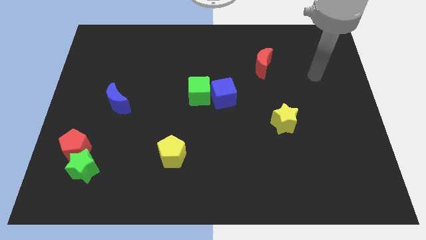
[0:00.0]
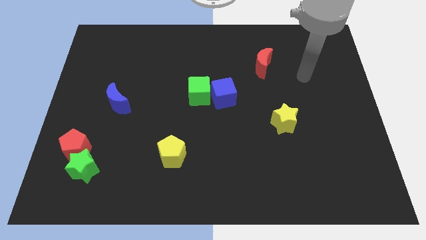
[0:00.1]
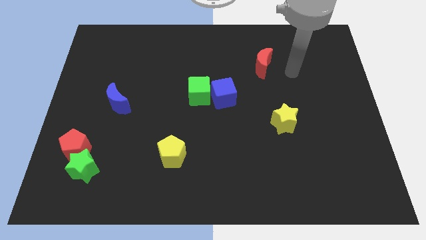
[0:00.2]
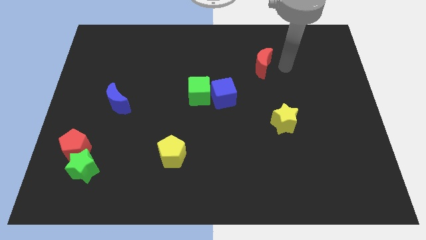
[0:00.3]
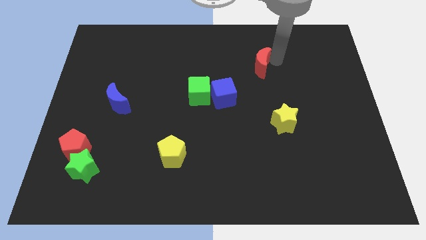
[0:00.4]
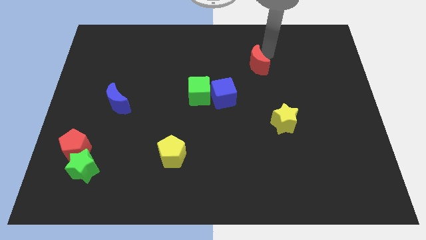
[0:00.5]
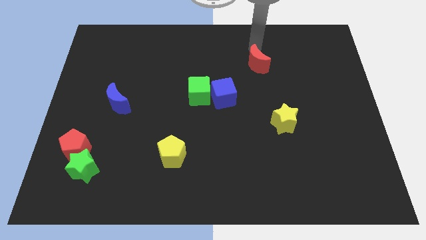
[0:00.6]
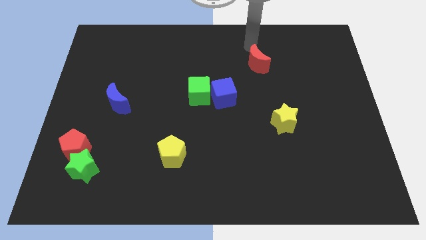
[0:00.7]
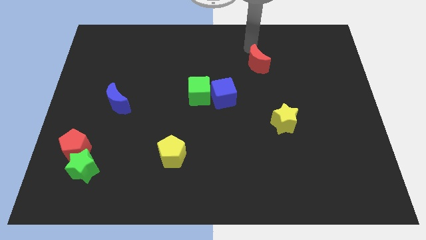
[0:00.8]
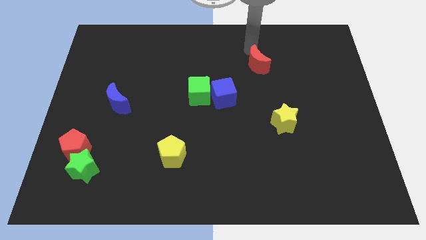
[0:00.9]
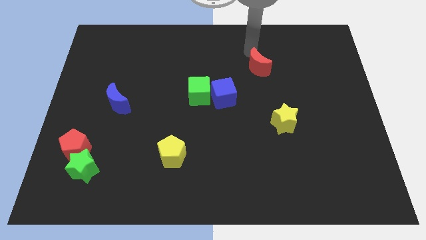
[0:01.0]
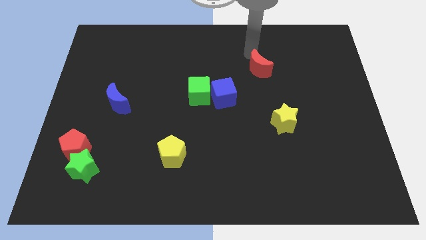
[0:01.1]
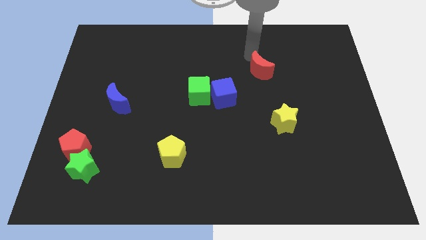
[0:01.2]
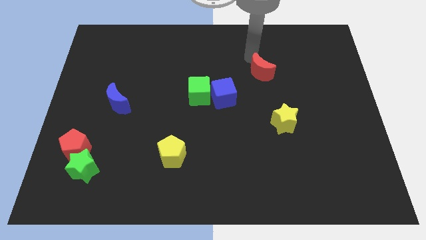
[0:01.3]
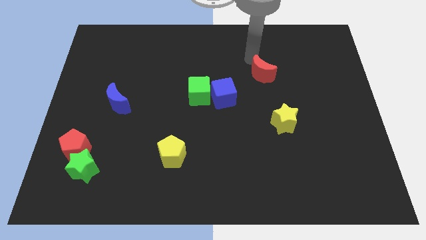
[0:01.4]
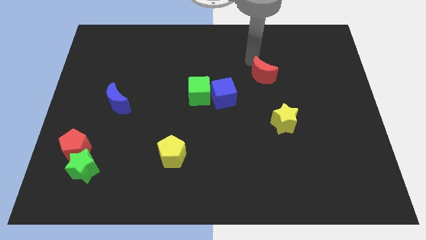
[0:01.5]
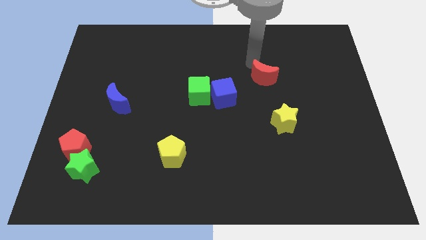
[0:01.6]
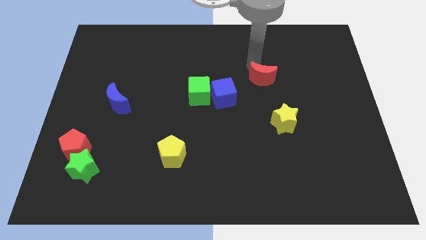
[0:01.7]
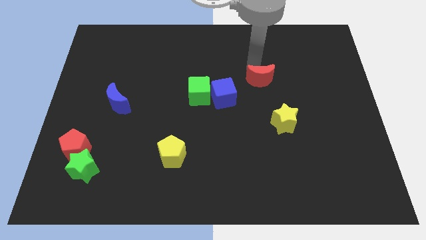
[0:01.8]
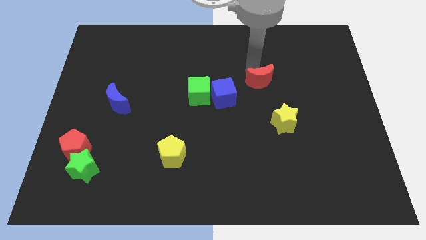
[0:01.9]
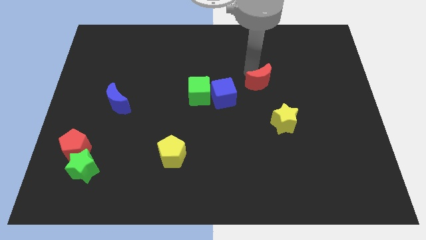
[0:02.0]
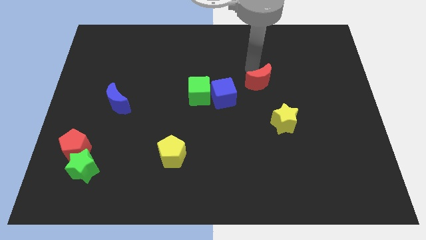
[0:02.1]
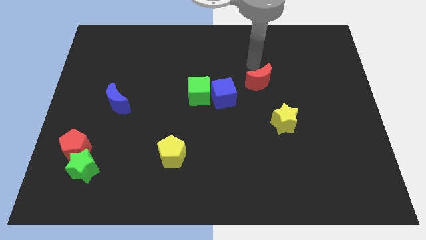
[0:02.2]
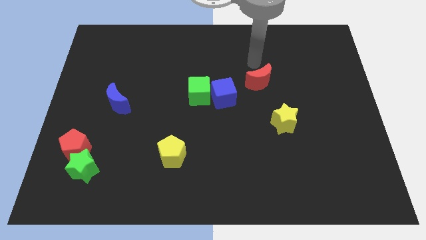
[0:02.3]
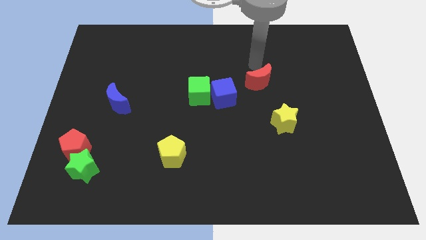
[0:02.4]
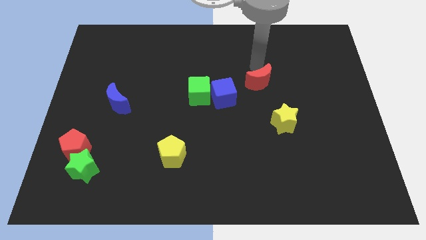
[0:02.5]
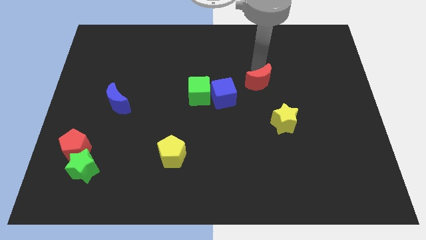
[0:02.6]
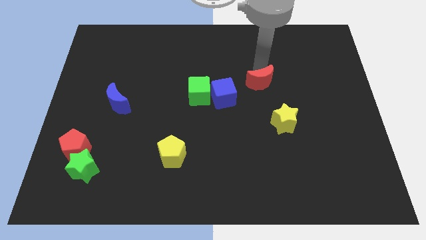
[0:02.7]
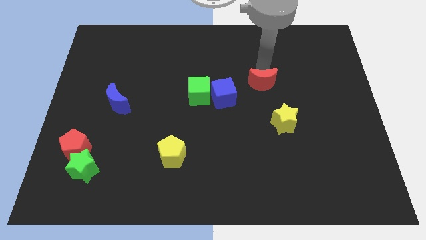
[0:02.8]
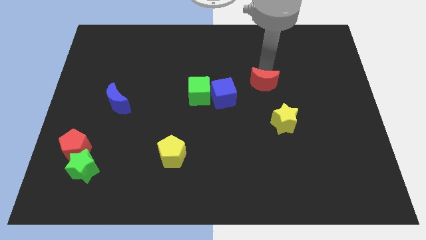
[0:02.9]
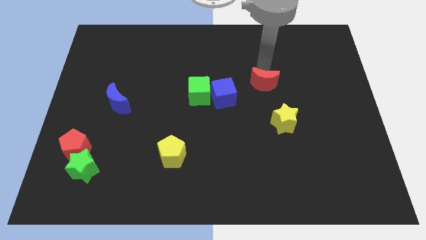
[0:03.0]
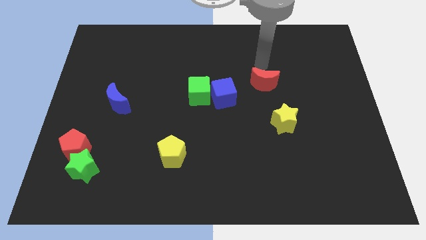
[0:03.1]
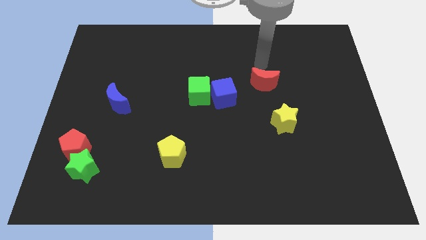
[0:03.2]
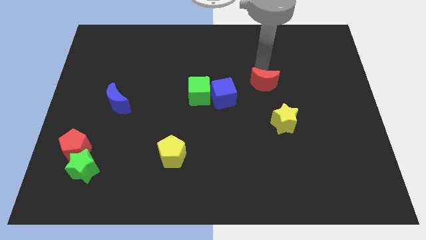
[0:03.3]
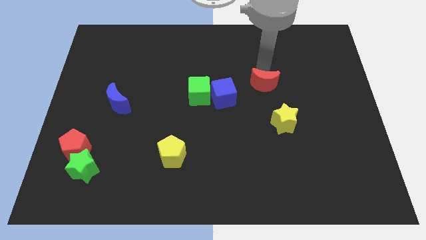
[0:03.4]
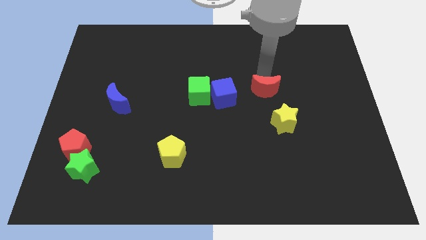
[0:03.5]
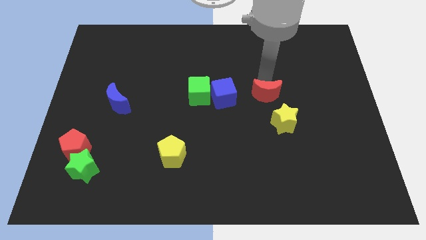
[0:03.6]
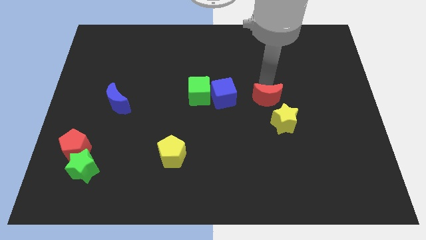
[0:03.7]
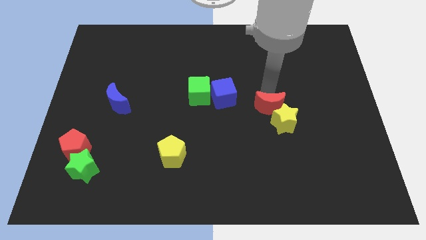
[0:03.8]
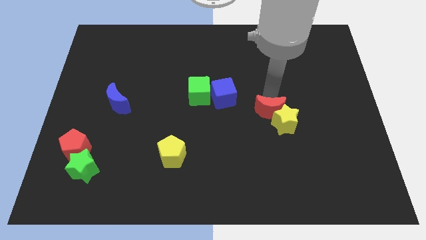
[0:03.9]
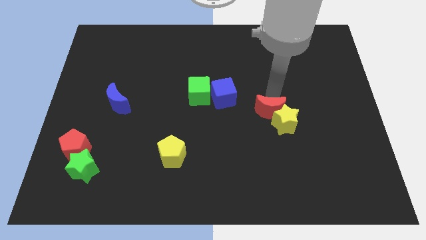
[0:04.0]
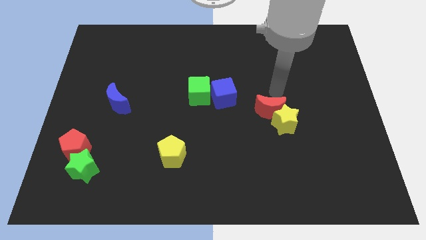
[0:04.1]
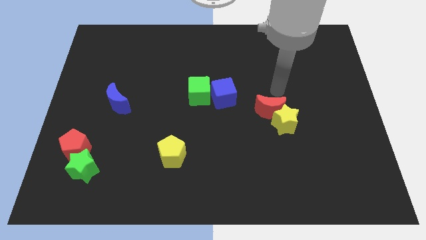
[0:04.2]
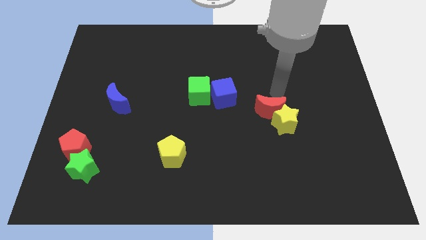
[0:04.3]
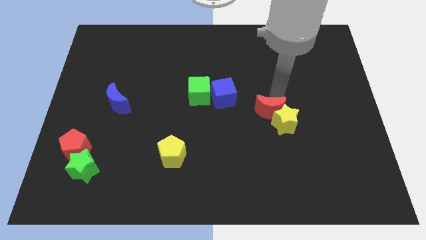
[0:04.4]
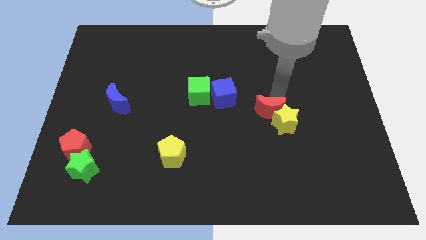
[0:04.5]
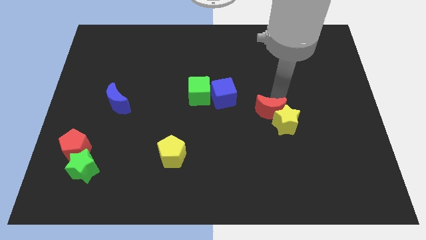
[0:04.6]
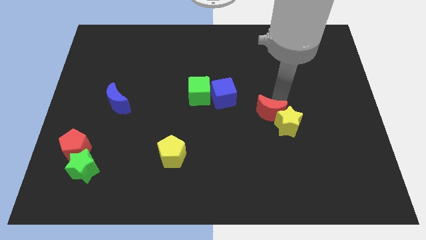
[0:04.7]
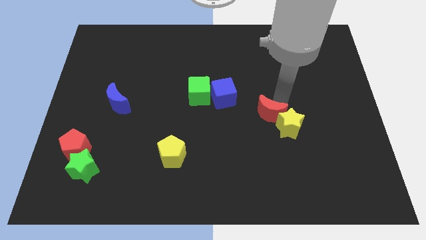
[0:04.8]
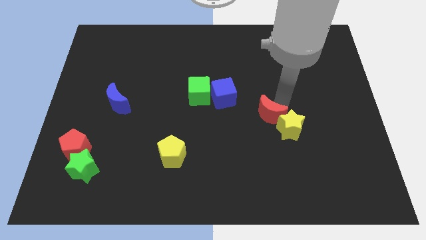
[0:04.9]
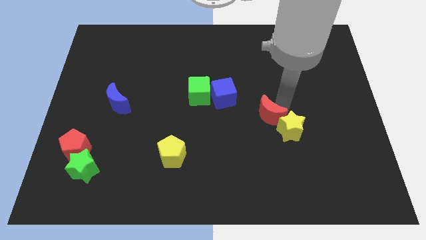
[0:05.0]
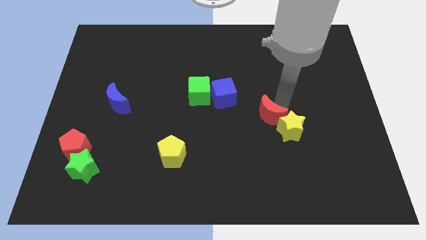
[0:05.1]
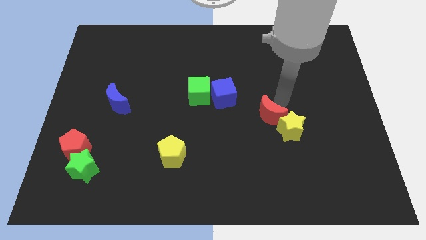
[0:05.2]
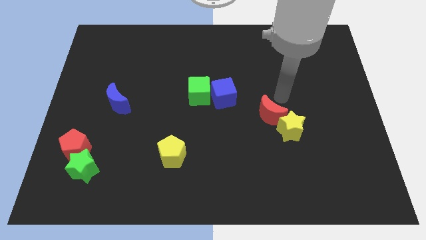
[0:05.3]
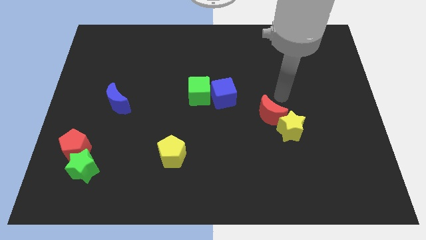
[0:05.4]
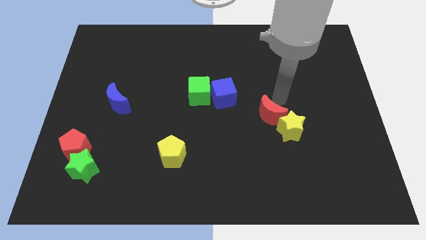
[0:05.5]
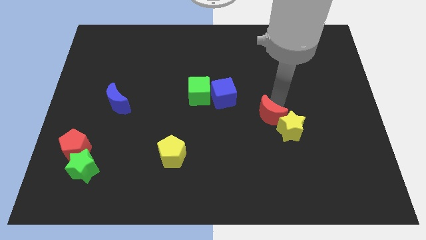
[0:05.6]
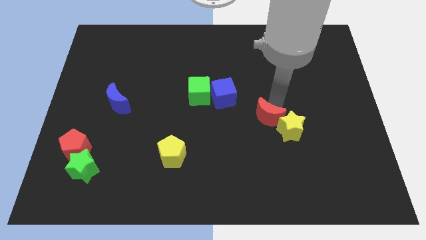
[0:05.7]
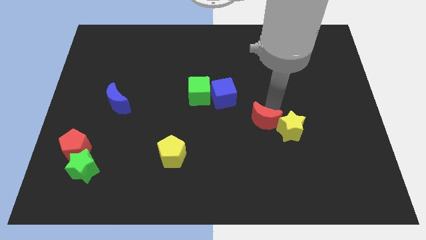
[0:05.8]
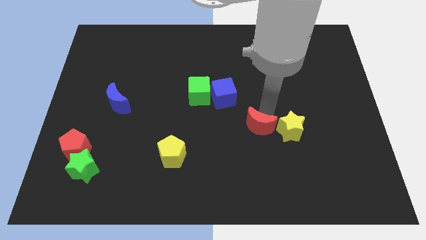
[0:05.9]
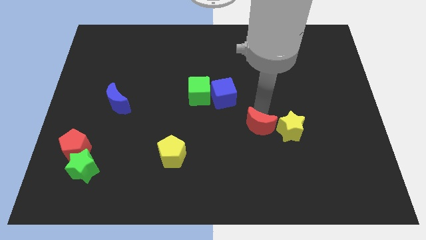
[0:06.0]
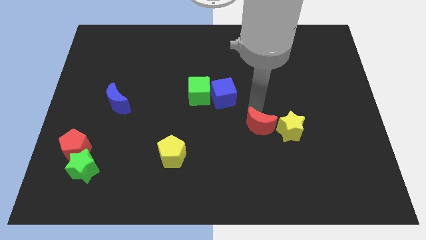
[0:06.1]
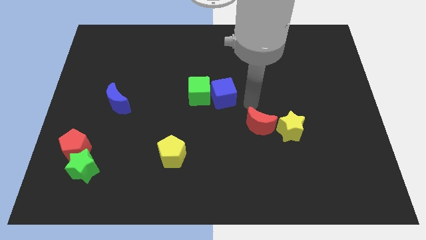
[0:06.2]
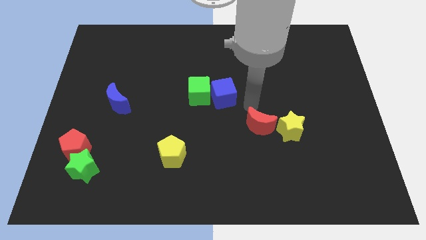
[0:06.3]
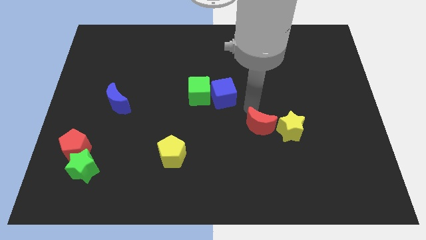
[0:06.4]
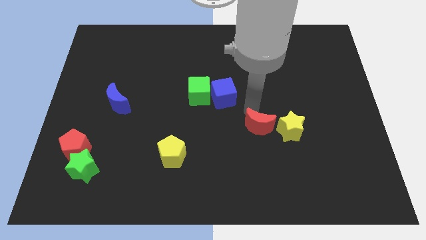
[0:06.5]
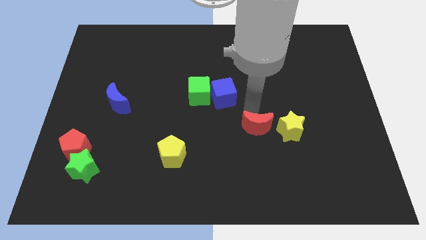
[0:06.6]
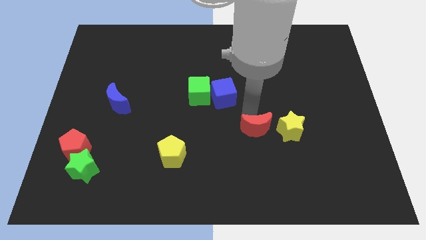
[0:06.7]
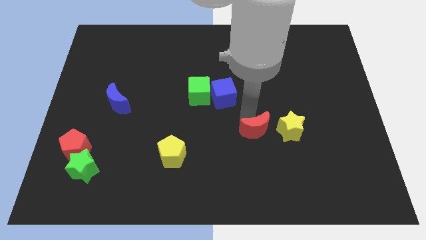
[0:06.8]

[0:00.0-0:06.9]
push the red moon downwards

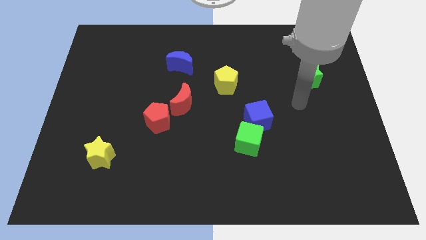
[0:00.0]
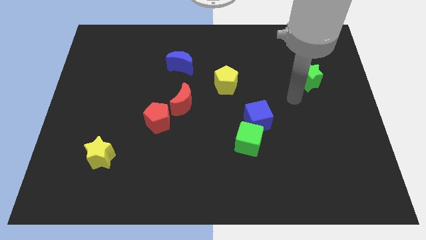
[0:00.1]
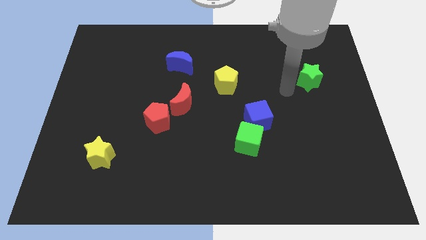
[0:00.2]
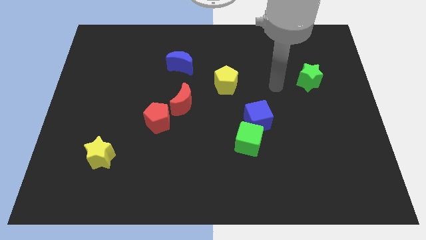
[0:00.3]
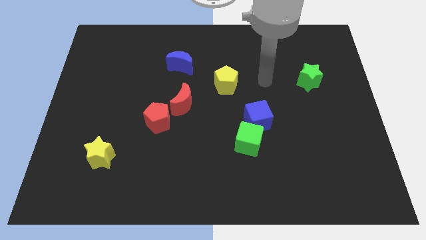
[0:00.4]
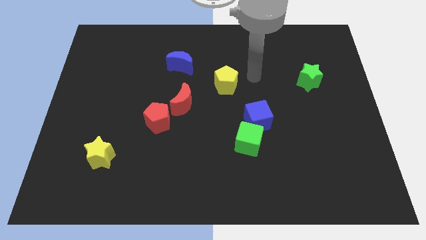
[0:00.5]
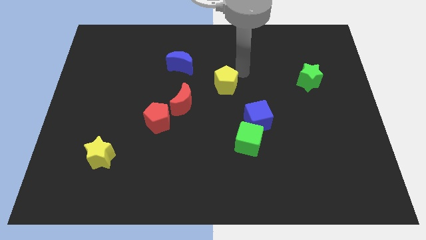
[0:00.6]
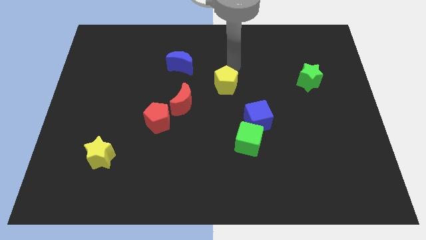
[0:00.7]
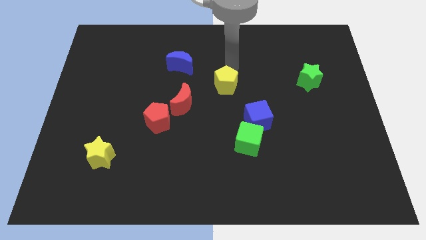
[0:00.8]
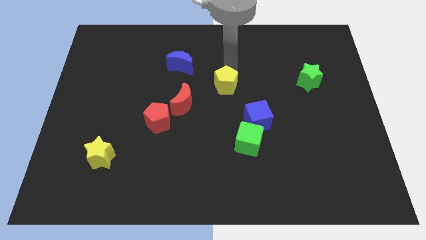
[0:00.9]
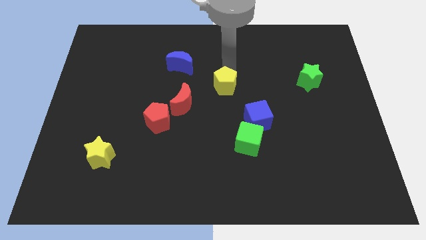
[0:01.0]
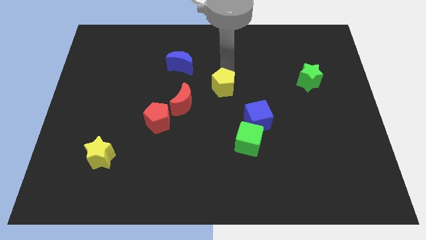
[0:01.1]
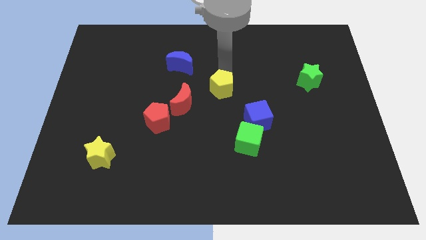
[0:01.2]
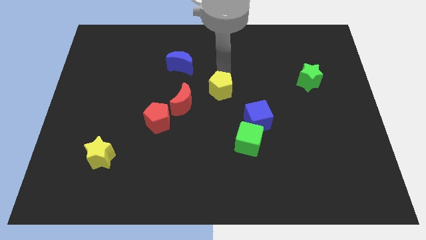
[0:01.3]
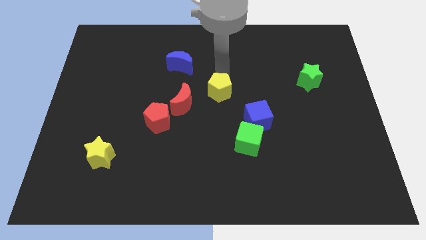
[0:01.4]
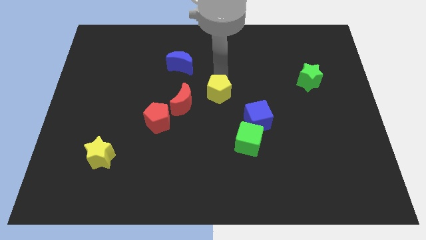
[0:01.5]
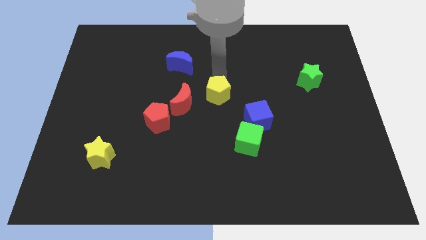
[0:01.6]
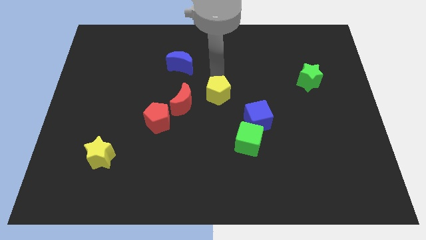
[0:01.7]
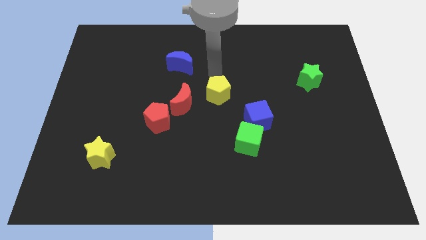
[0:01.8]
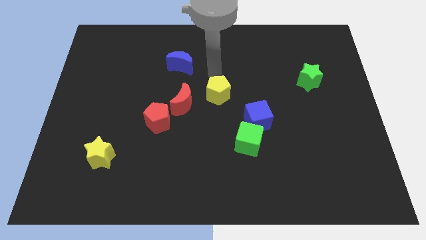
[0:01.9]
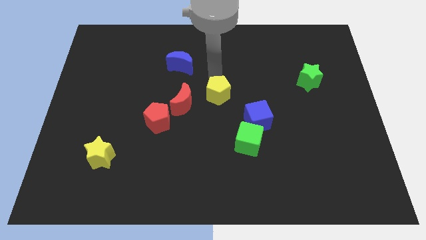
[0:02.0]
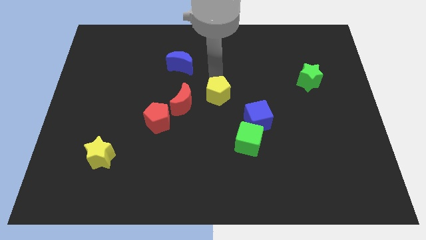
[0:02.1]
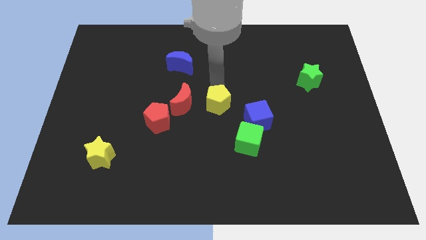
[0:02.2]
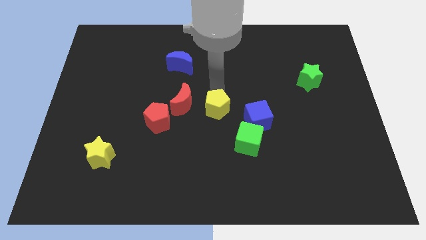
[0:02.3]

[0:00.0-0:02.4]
slightly push the yellow pentagon down
